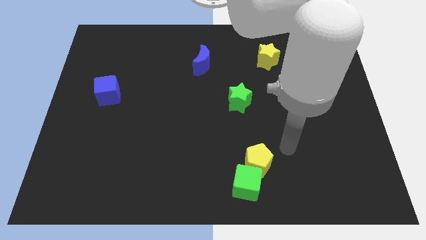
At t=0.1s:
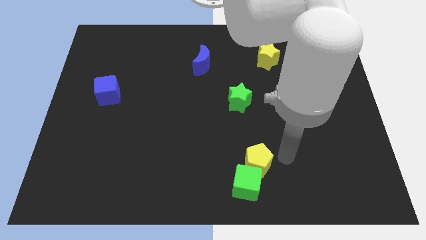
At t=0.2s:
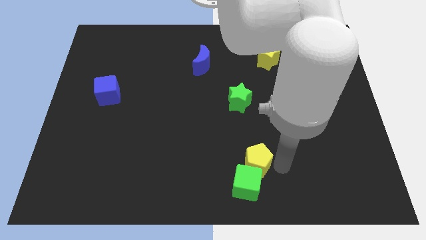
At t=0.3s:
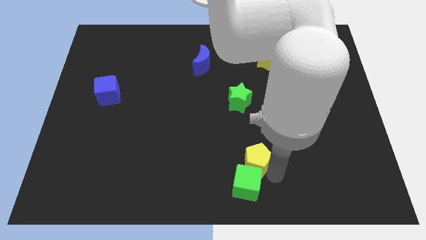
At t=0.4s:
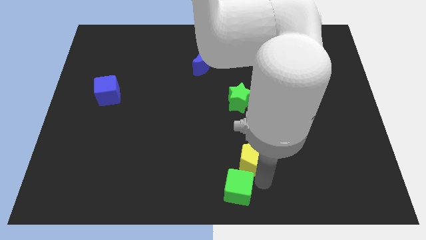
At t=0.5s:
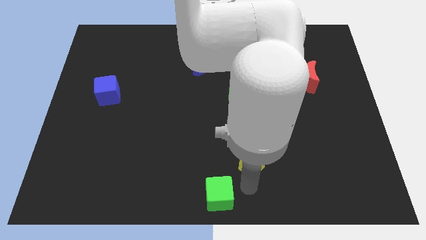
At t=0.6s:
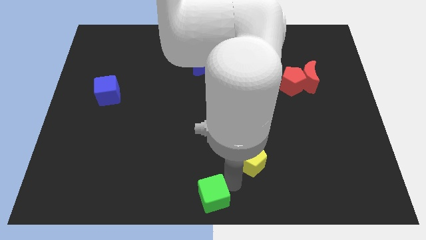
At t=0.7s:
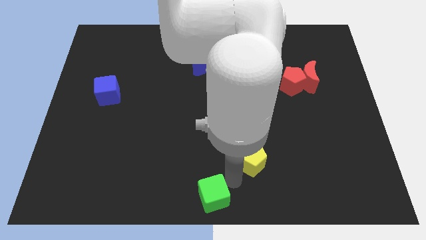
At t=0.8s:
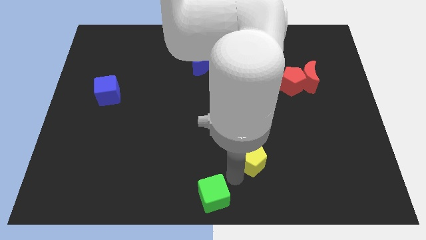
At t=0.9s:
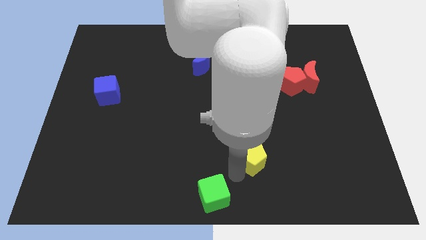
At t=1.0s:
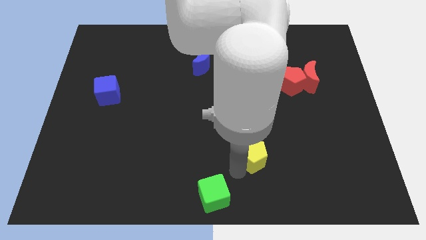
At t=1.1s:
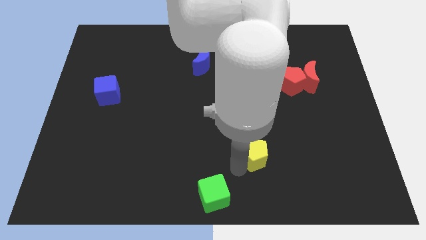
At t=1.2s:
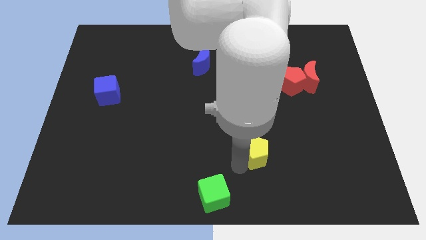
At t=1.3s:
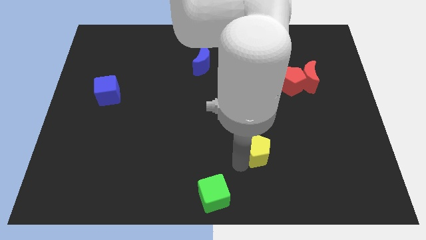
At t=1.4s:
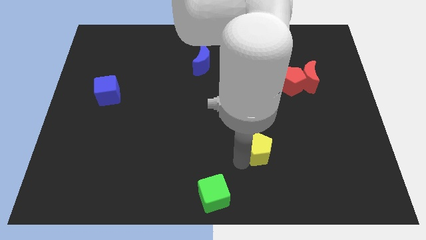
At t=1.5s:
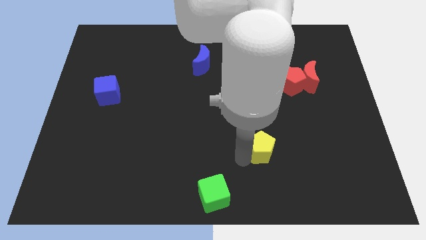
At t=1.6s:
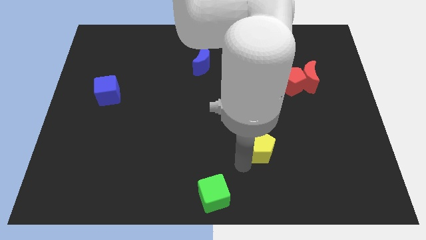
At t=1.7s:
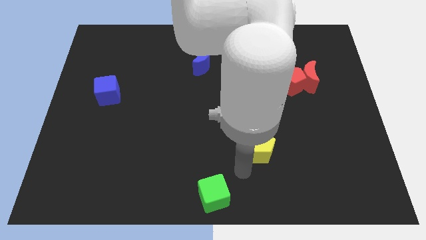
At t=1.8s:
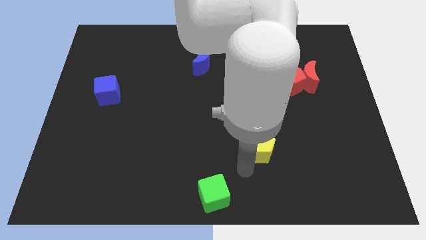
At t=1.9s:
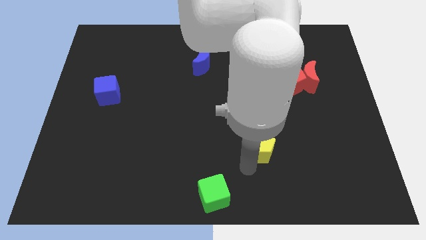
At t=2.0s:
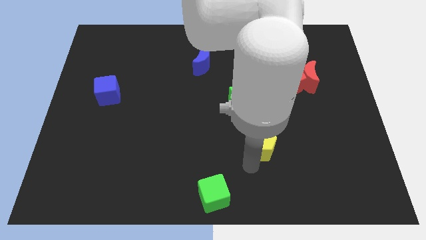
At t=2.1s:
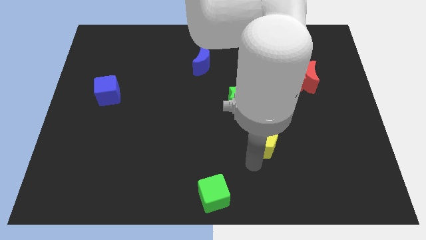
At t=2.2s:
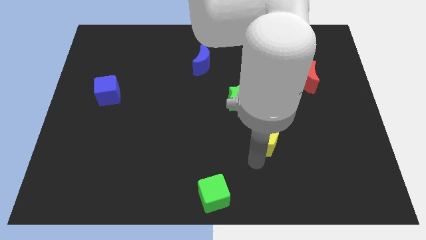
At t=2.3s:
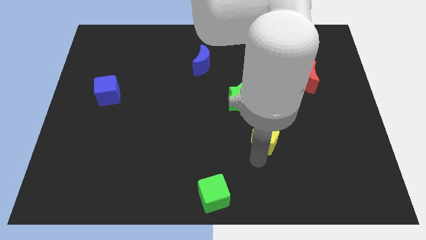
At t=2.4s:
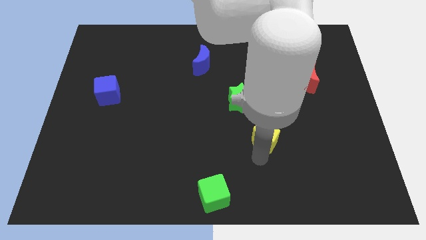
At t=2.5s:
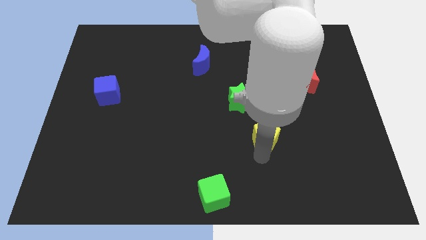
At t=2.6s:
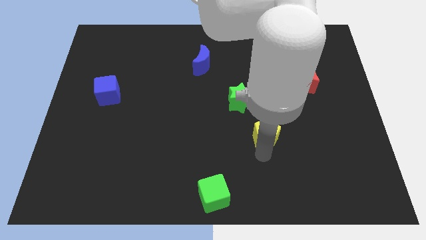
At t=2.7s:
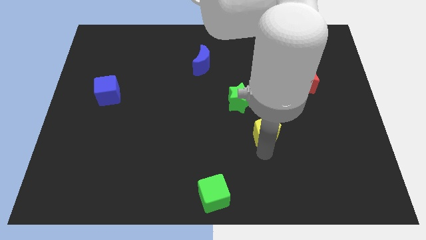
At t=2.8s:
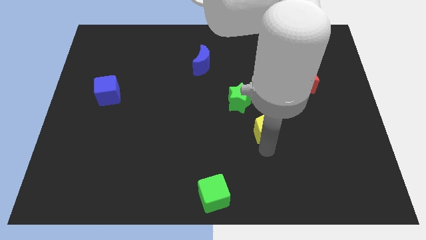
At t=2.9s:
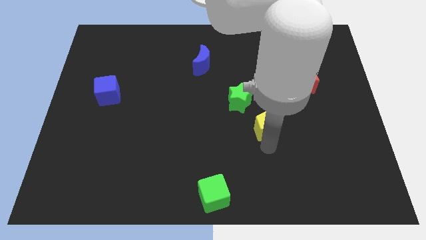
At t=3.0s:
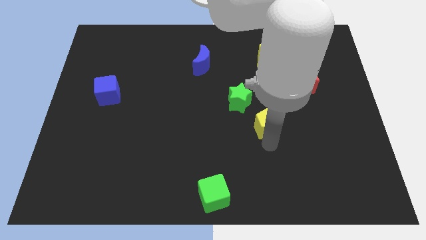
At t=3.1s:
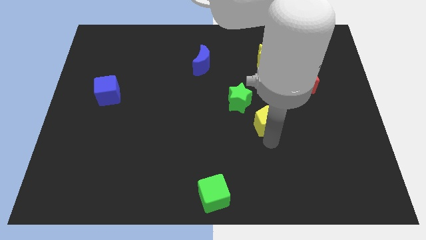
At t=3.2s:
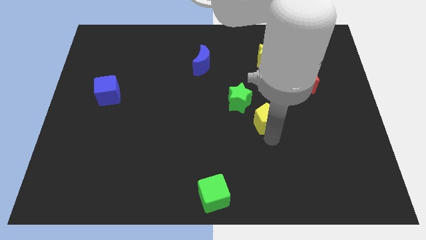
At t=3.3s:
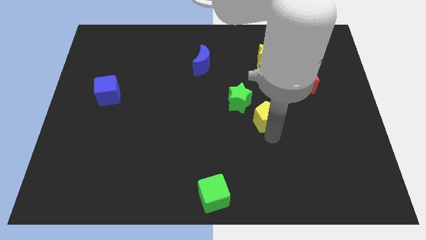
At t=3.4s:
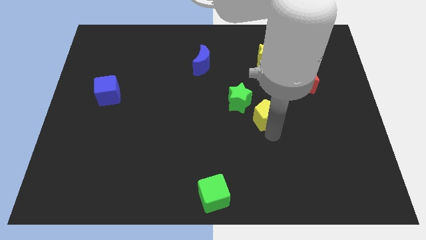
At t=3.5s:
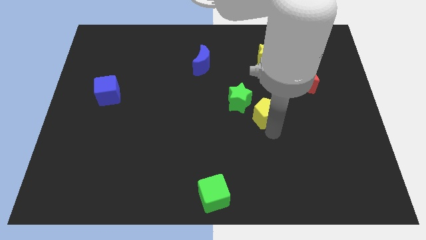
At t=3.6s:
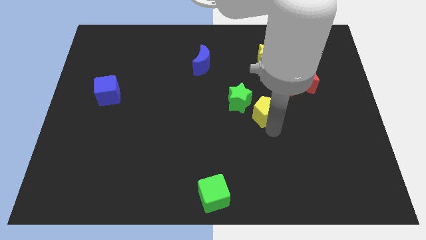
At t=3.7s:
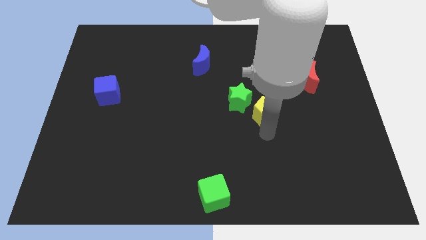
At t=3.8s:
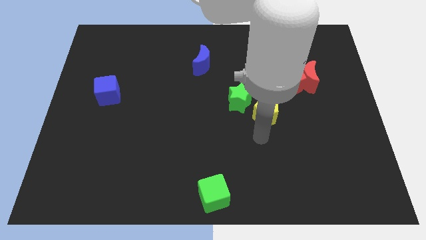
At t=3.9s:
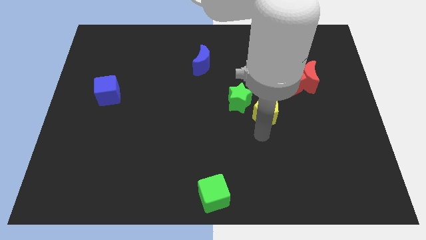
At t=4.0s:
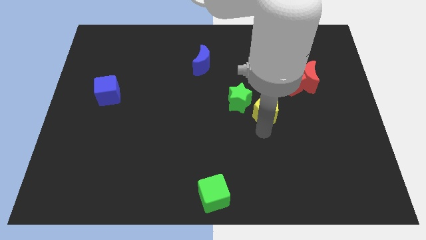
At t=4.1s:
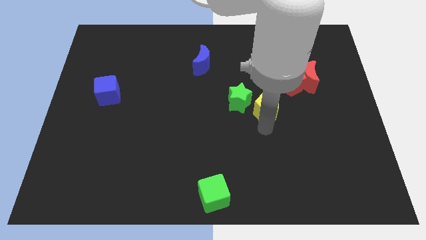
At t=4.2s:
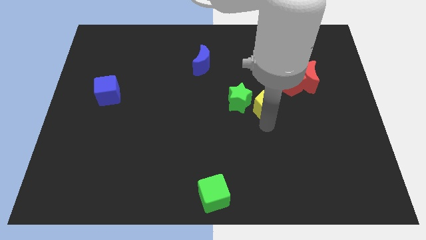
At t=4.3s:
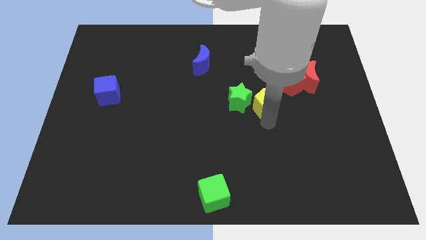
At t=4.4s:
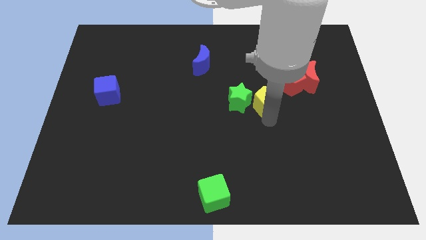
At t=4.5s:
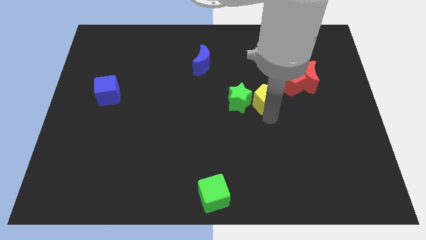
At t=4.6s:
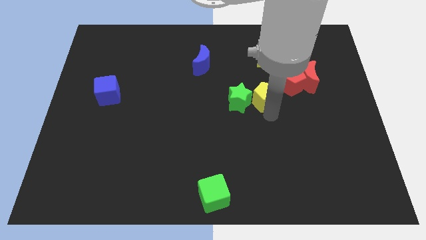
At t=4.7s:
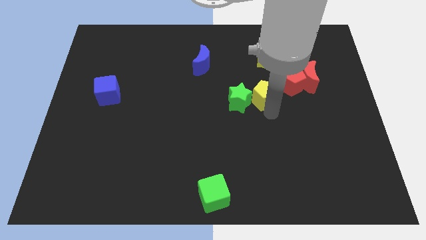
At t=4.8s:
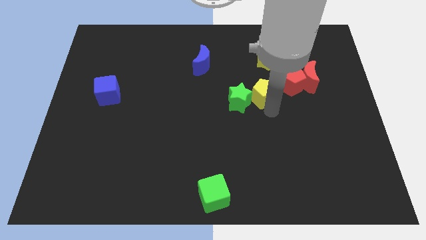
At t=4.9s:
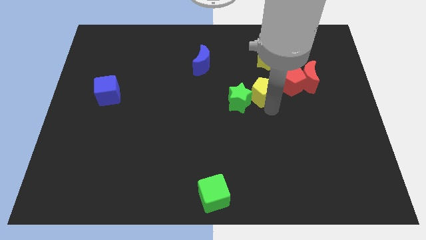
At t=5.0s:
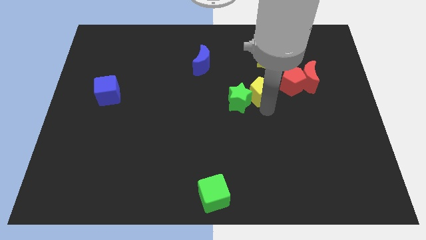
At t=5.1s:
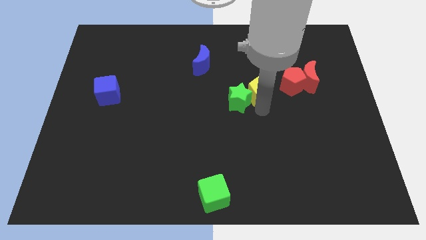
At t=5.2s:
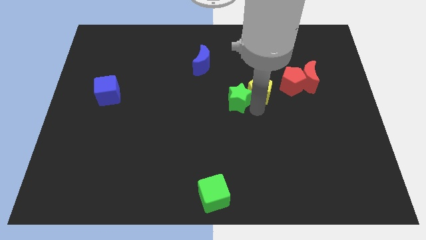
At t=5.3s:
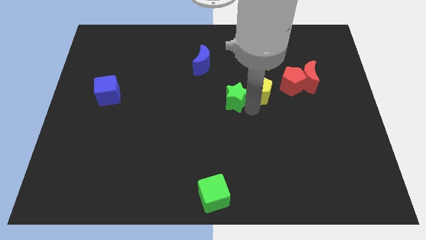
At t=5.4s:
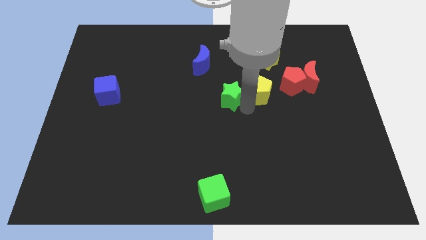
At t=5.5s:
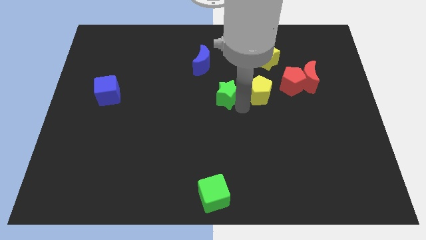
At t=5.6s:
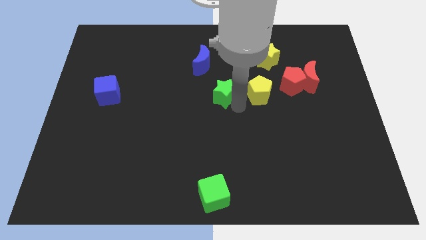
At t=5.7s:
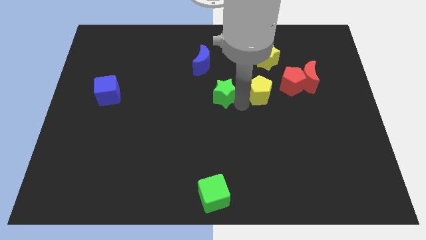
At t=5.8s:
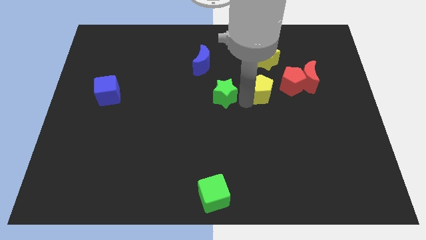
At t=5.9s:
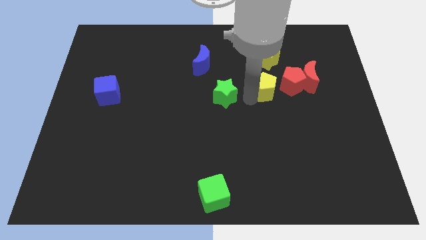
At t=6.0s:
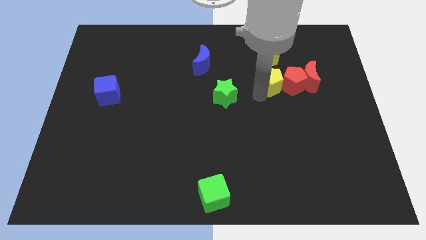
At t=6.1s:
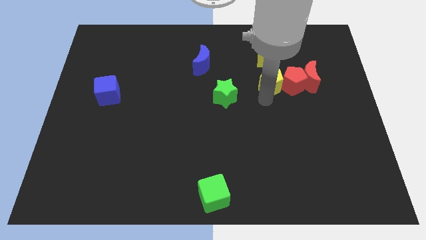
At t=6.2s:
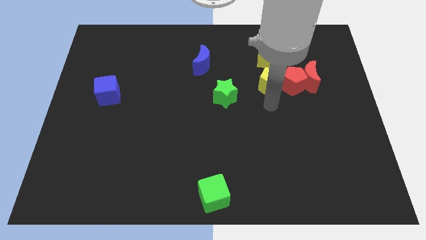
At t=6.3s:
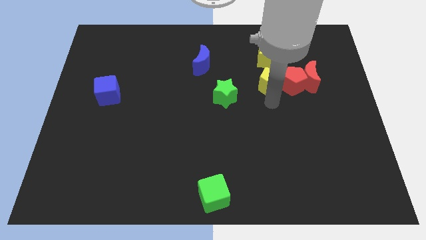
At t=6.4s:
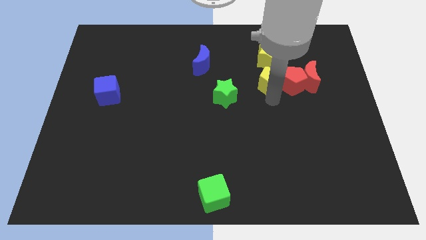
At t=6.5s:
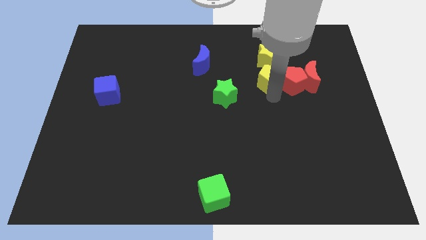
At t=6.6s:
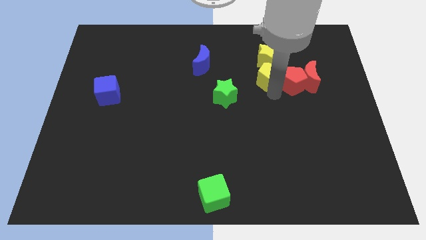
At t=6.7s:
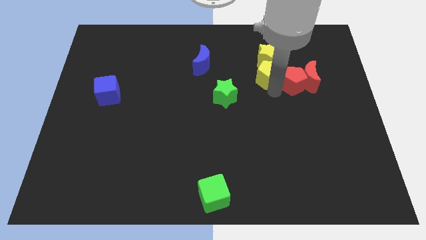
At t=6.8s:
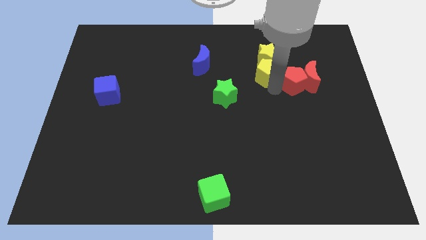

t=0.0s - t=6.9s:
move the yellow pentagon next to the yellow star
